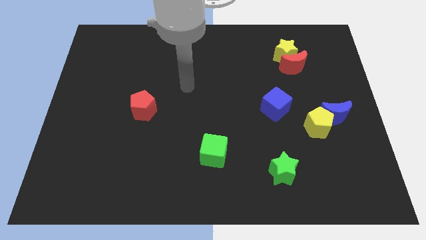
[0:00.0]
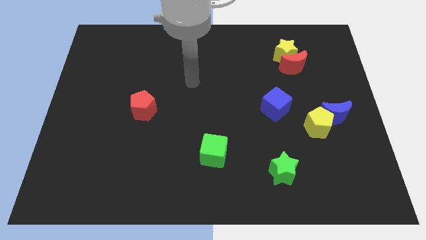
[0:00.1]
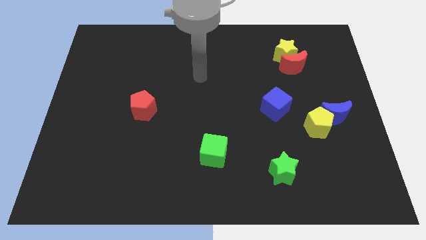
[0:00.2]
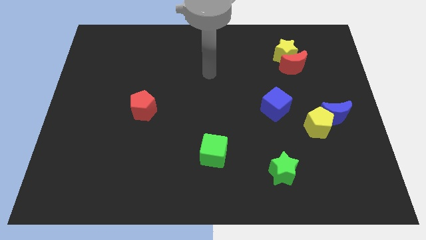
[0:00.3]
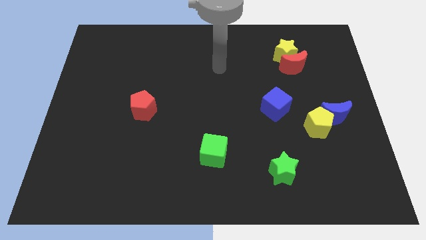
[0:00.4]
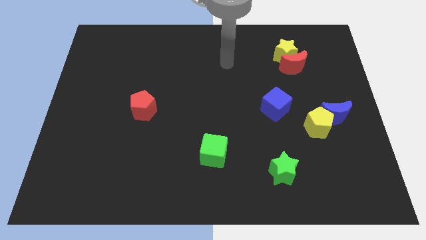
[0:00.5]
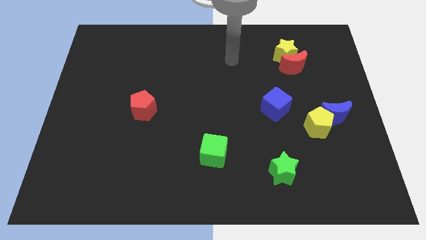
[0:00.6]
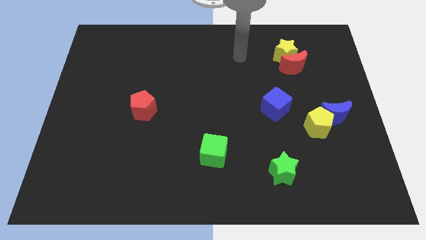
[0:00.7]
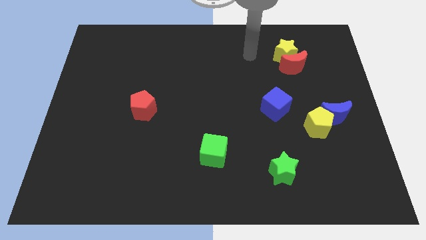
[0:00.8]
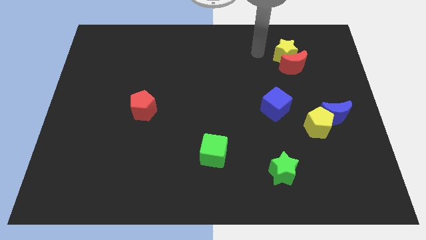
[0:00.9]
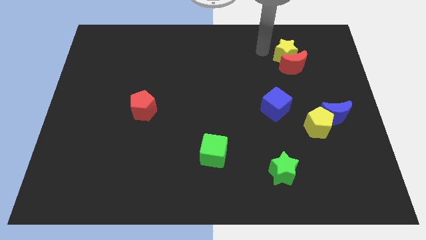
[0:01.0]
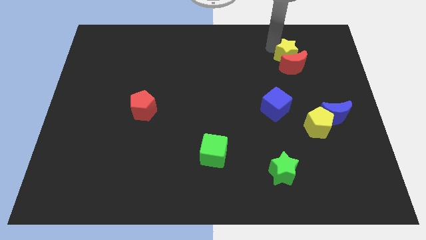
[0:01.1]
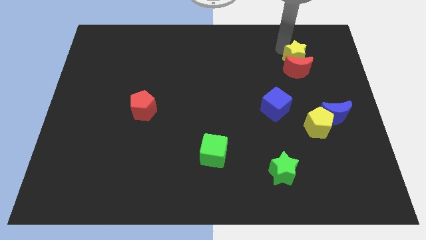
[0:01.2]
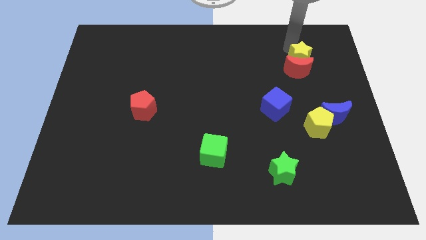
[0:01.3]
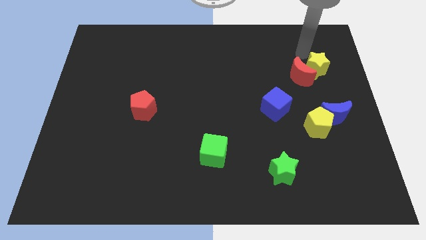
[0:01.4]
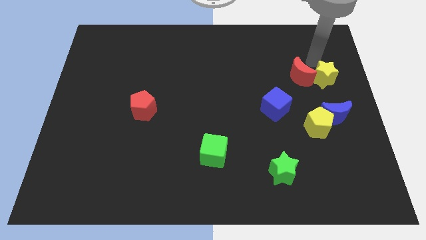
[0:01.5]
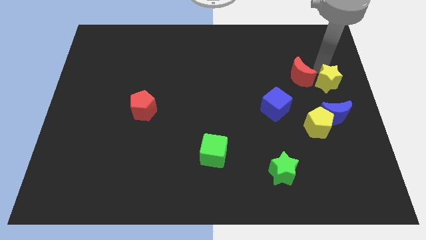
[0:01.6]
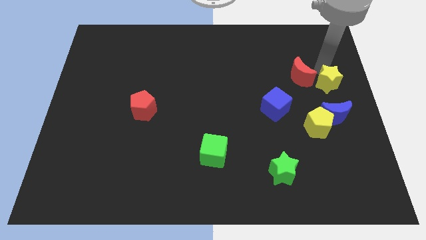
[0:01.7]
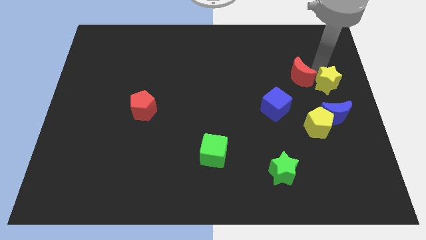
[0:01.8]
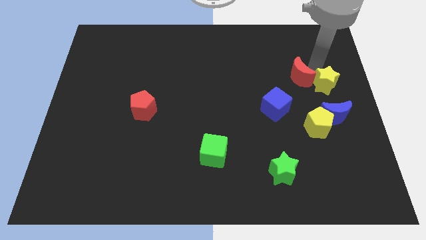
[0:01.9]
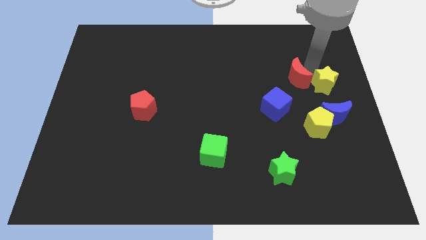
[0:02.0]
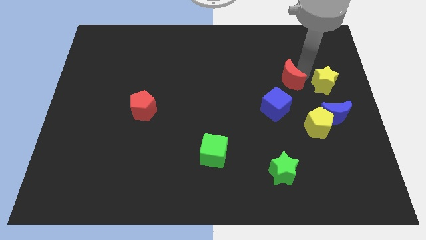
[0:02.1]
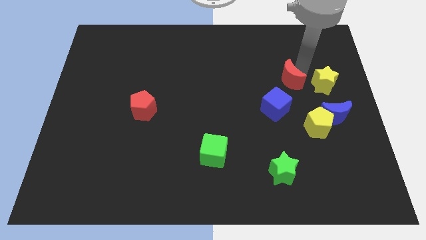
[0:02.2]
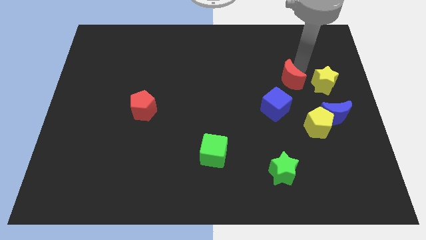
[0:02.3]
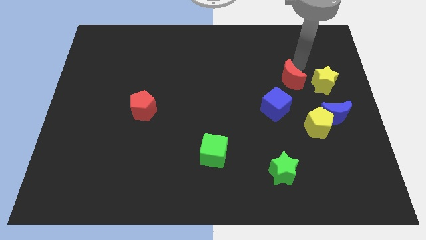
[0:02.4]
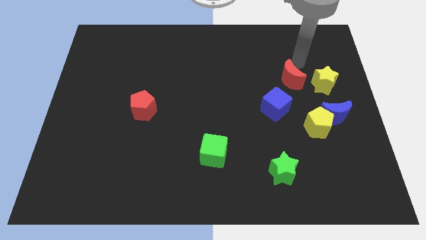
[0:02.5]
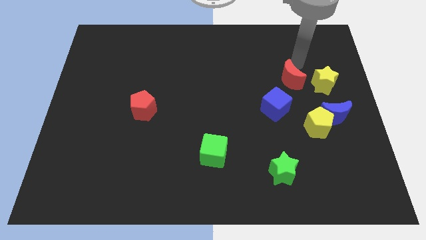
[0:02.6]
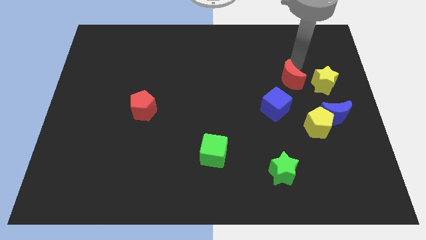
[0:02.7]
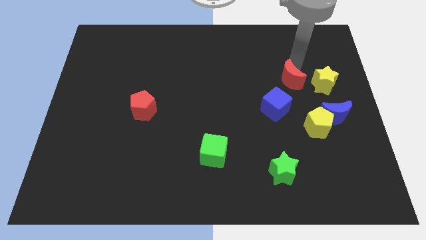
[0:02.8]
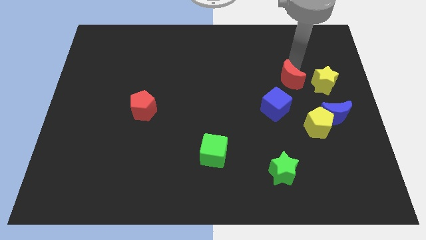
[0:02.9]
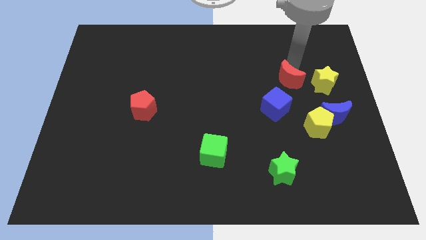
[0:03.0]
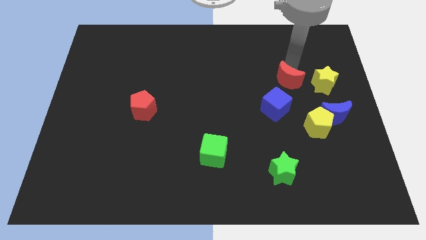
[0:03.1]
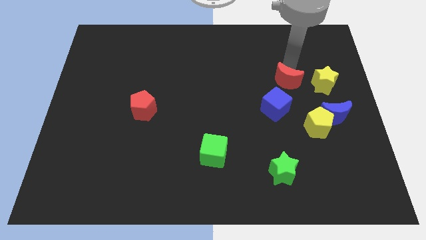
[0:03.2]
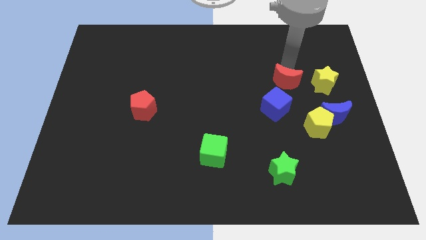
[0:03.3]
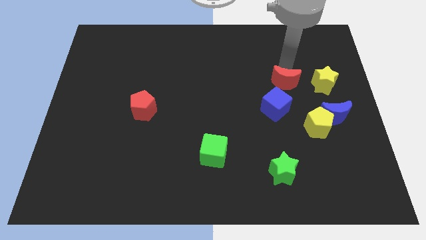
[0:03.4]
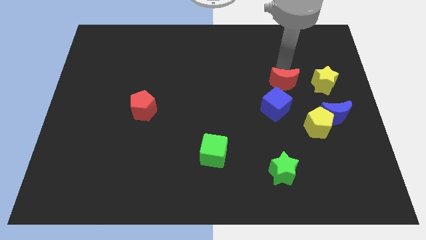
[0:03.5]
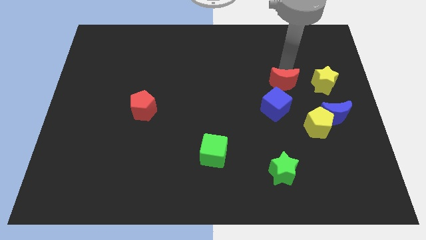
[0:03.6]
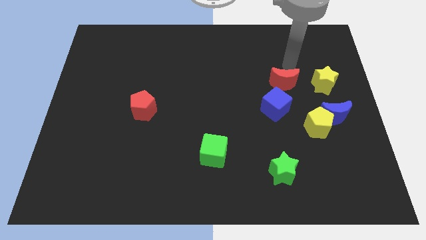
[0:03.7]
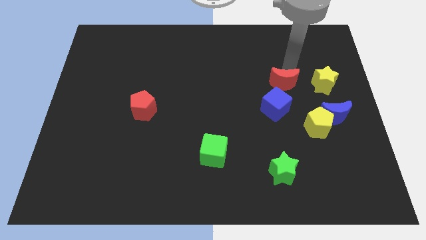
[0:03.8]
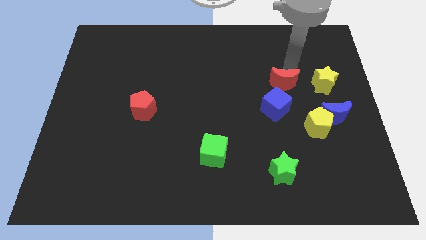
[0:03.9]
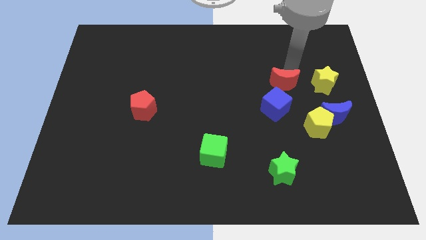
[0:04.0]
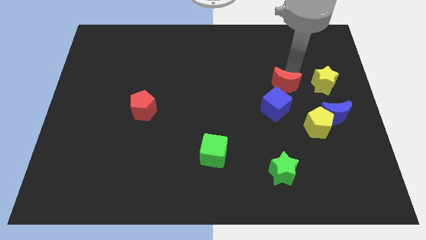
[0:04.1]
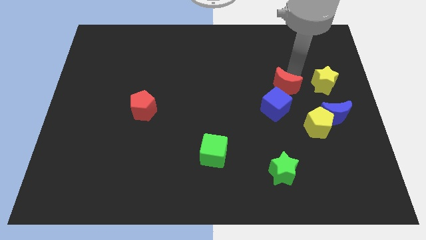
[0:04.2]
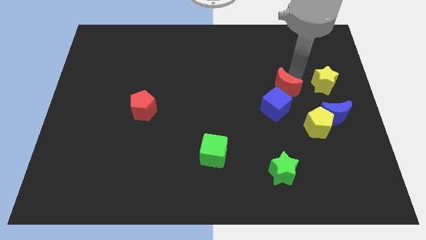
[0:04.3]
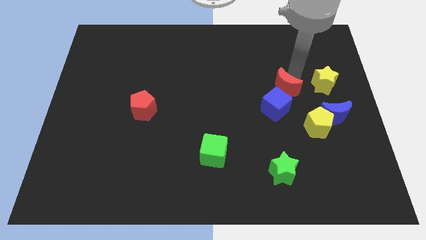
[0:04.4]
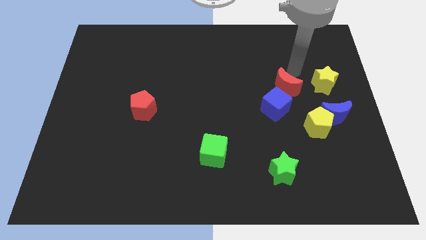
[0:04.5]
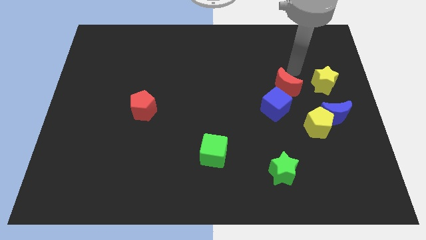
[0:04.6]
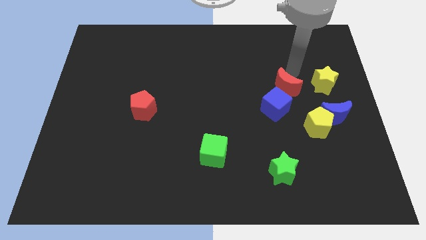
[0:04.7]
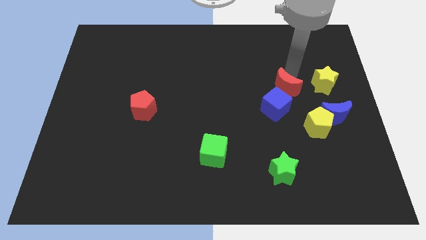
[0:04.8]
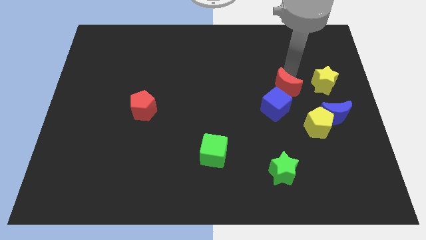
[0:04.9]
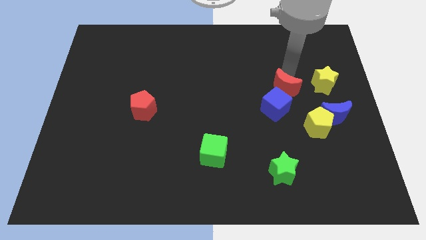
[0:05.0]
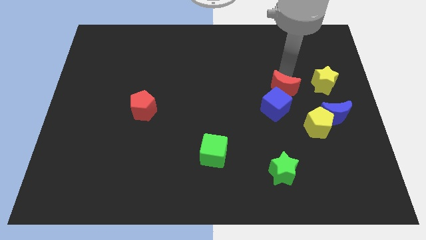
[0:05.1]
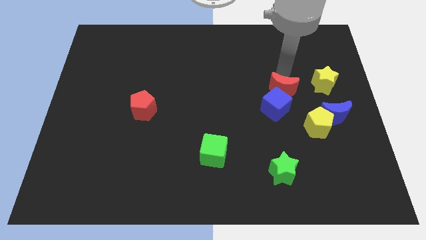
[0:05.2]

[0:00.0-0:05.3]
push the red moon towards the blue cube

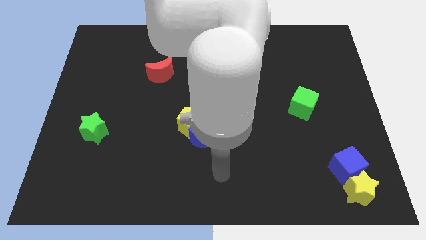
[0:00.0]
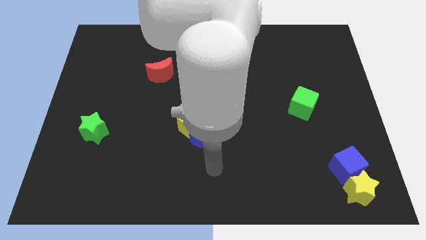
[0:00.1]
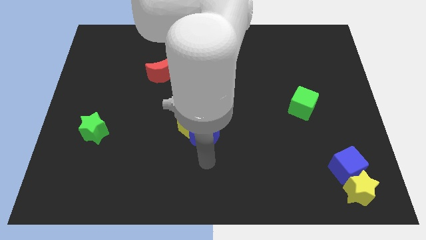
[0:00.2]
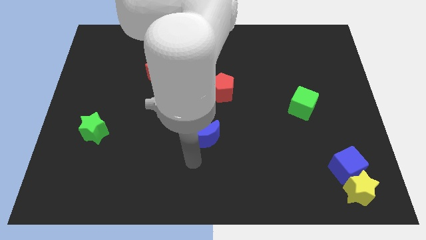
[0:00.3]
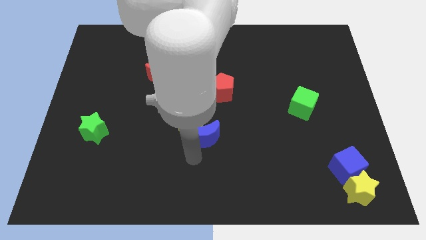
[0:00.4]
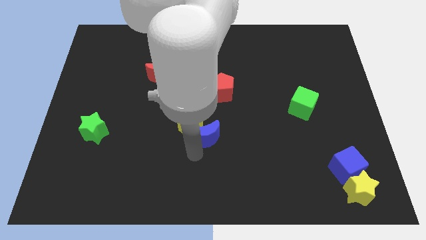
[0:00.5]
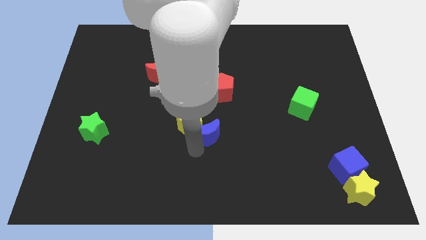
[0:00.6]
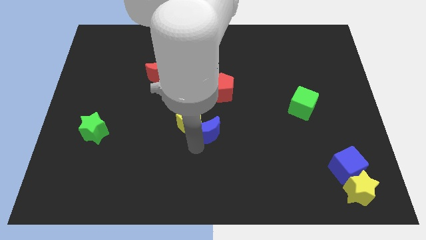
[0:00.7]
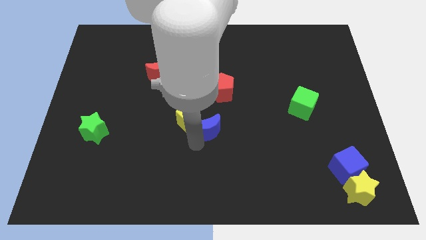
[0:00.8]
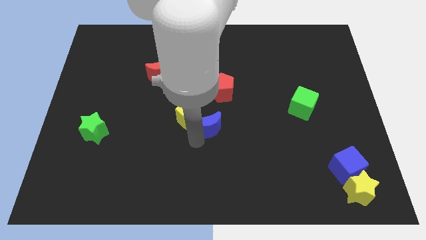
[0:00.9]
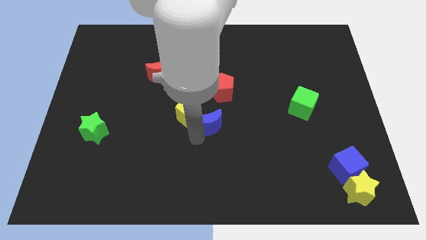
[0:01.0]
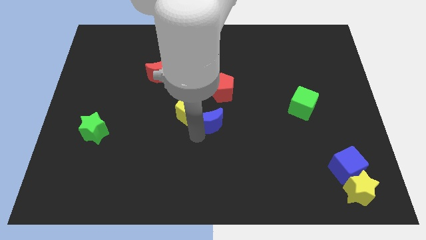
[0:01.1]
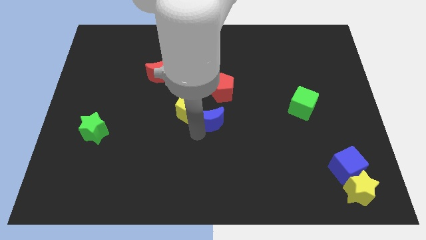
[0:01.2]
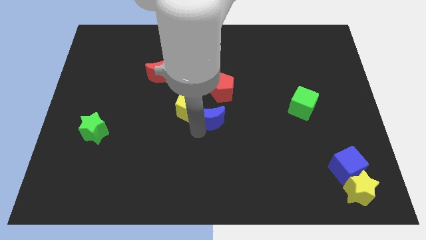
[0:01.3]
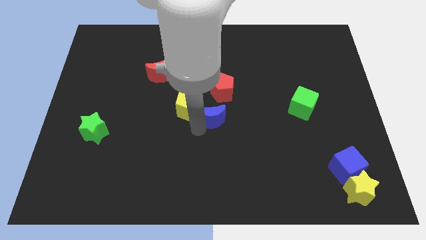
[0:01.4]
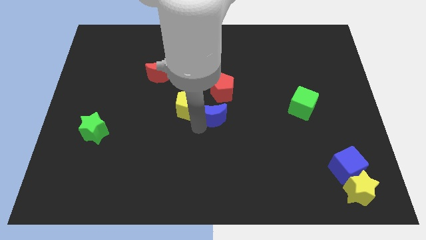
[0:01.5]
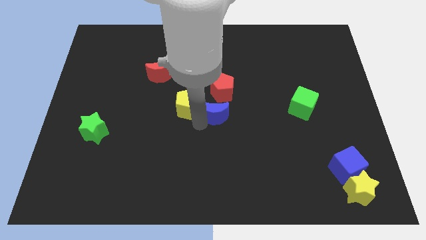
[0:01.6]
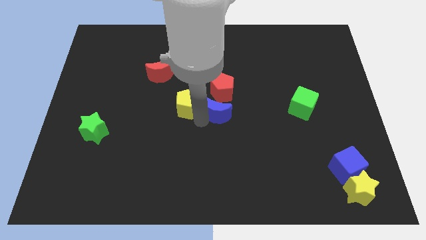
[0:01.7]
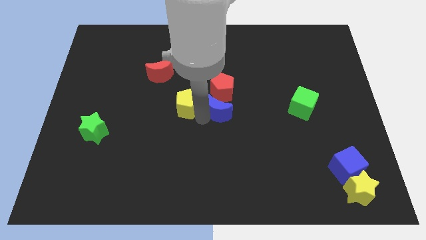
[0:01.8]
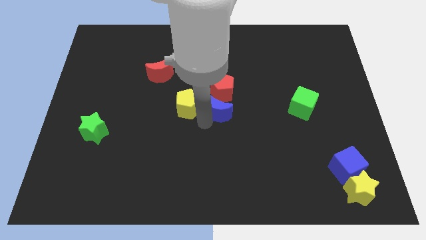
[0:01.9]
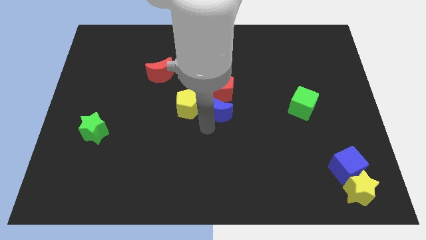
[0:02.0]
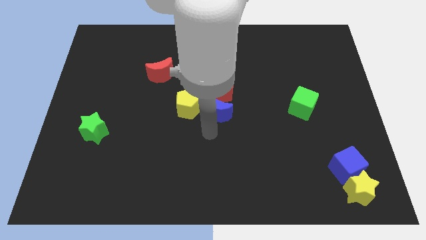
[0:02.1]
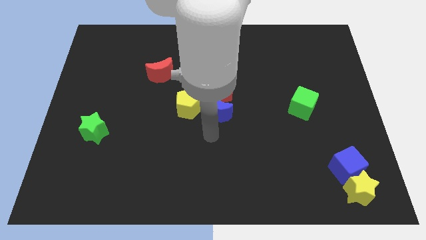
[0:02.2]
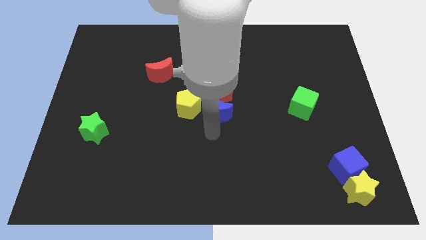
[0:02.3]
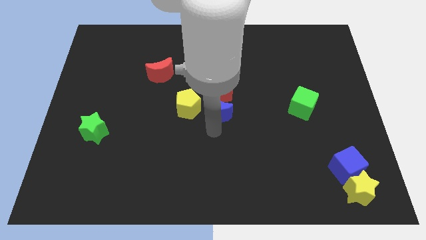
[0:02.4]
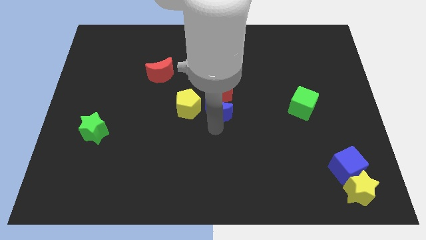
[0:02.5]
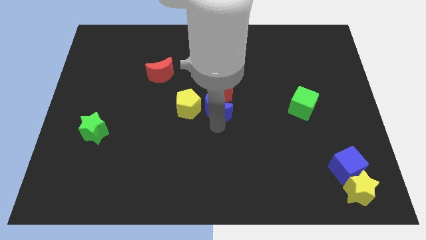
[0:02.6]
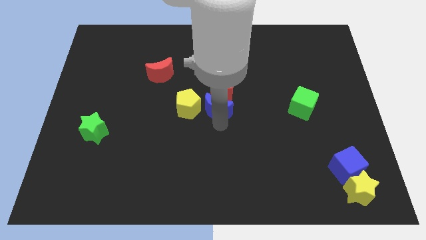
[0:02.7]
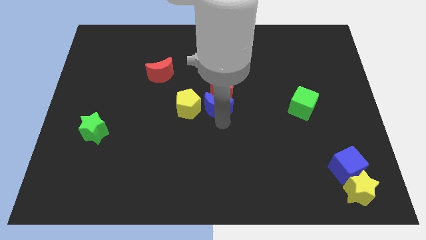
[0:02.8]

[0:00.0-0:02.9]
move the blue moon towards the red pentagon
